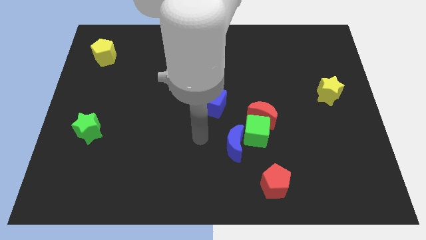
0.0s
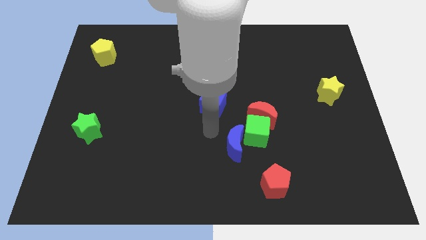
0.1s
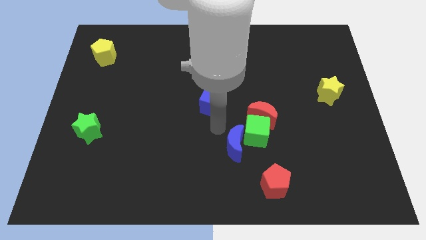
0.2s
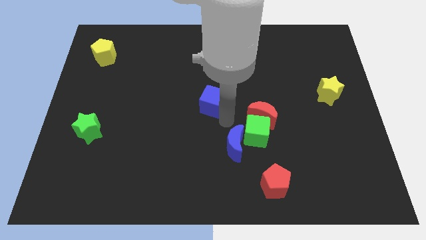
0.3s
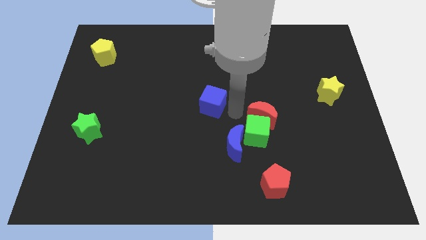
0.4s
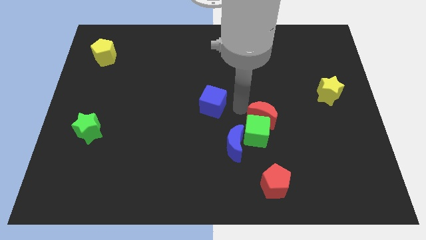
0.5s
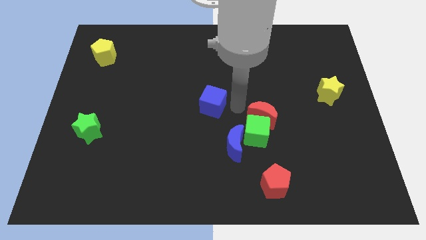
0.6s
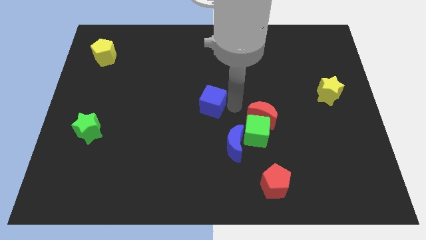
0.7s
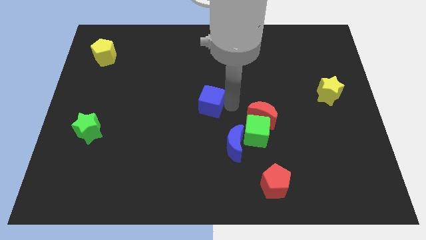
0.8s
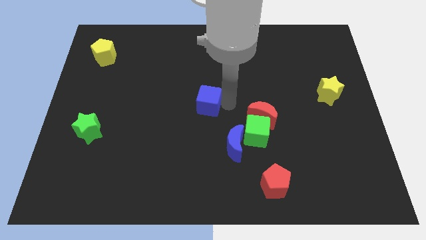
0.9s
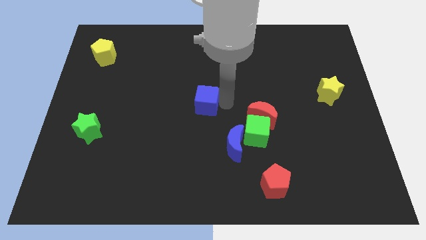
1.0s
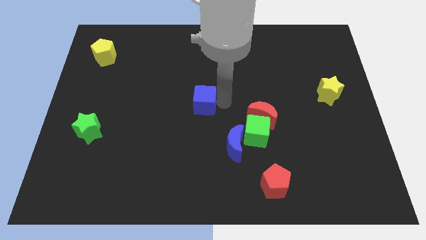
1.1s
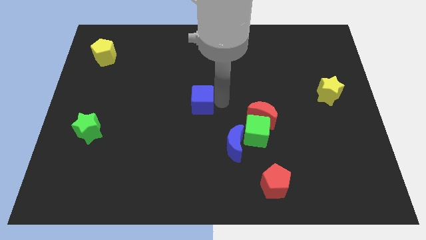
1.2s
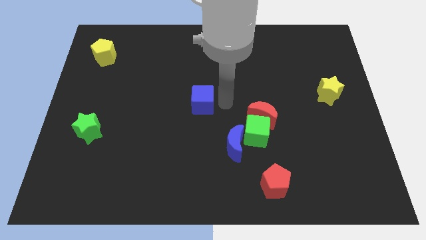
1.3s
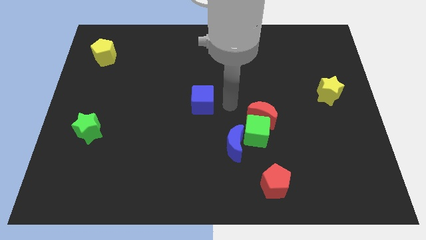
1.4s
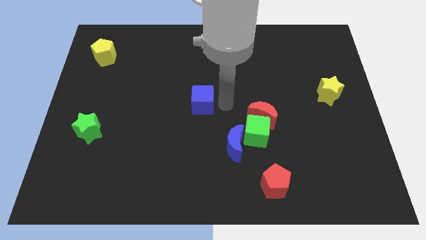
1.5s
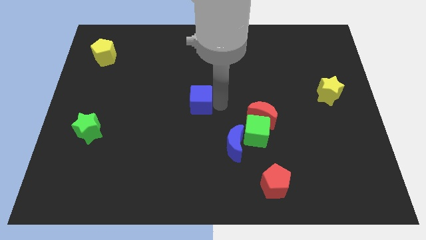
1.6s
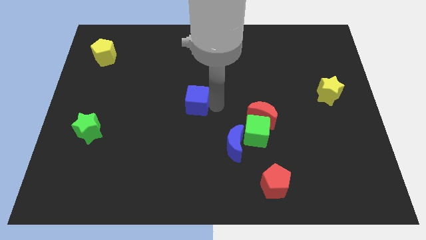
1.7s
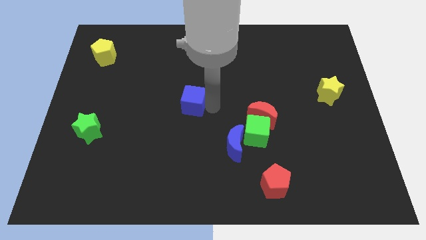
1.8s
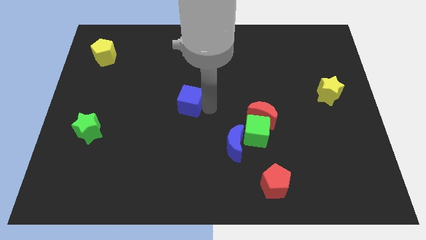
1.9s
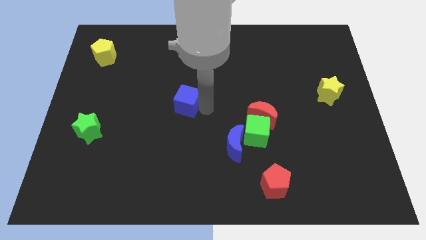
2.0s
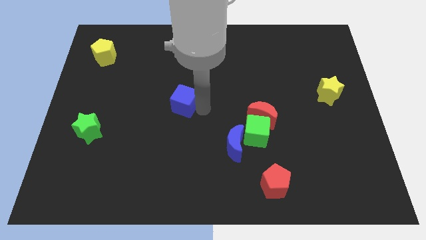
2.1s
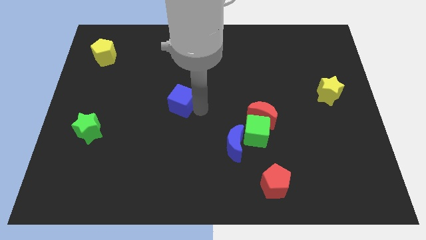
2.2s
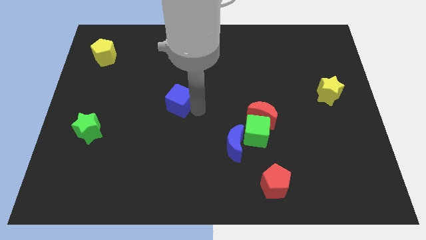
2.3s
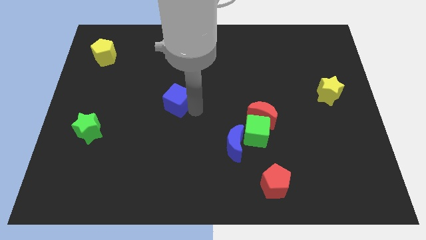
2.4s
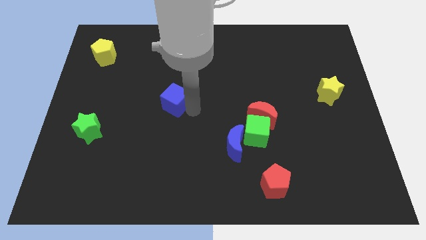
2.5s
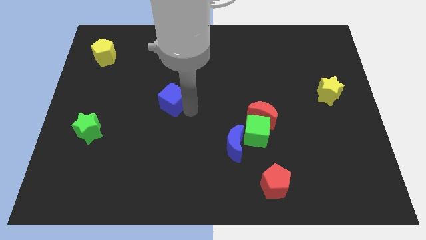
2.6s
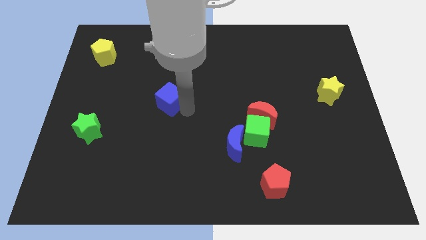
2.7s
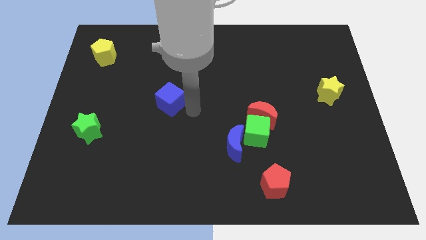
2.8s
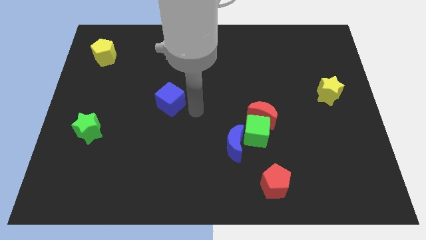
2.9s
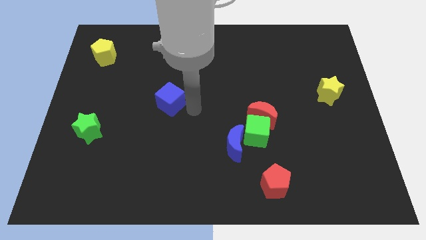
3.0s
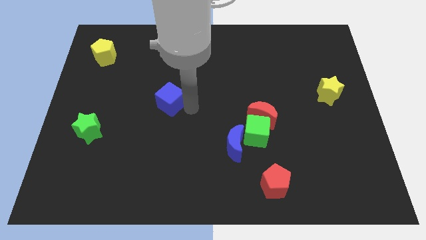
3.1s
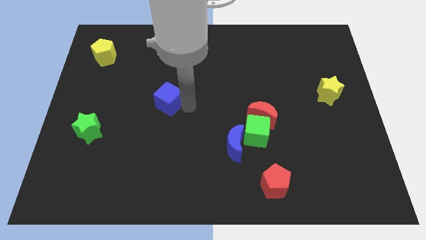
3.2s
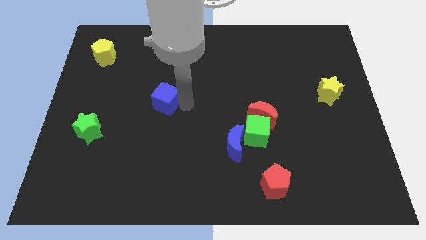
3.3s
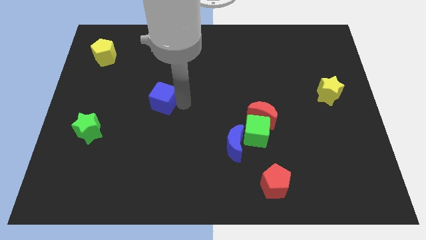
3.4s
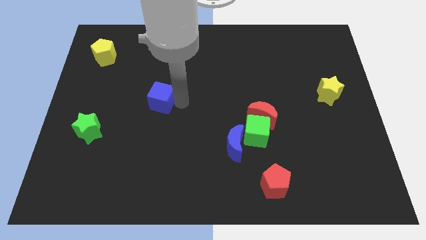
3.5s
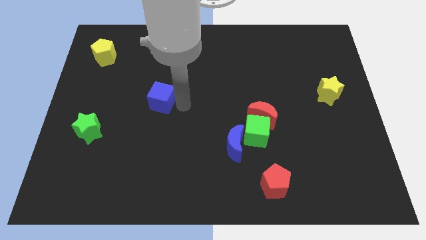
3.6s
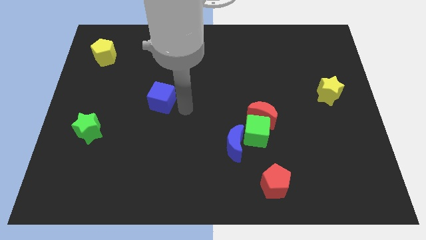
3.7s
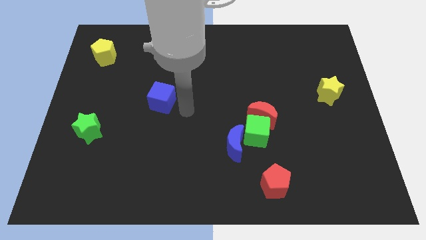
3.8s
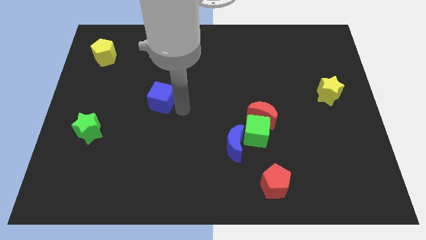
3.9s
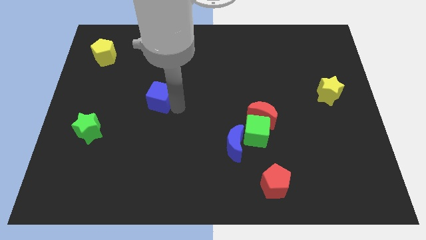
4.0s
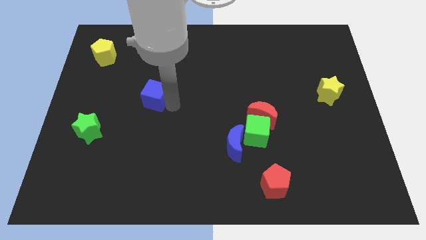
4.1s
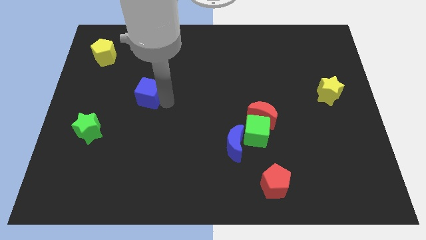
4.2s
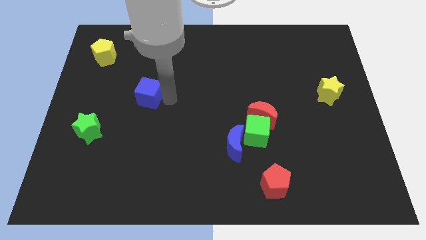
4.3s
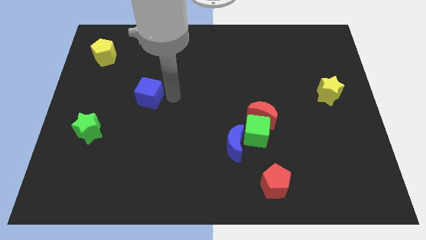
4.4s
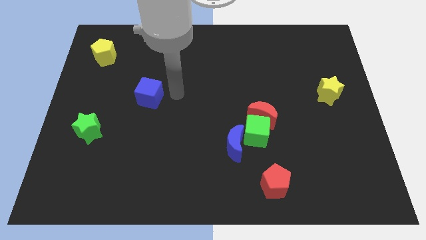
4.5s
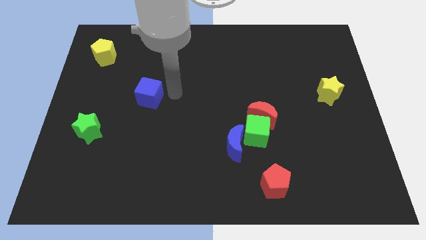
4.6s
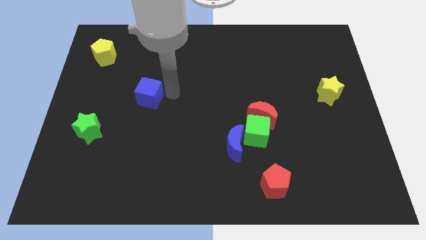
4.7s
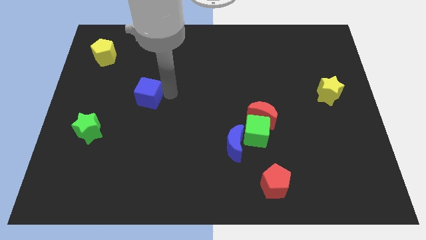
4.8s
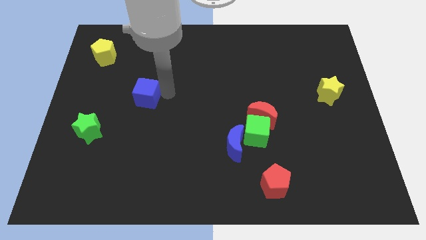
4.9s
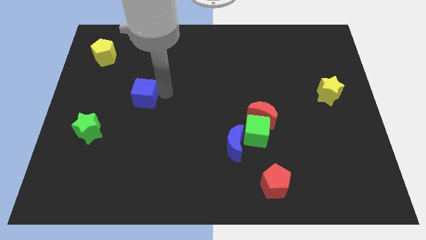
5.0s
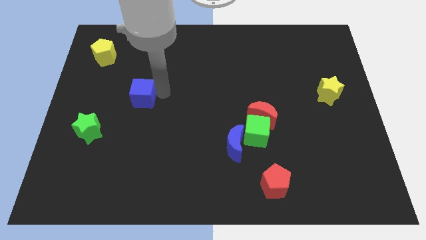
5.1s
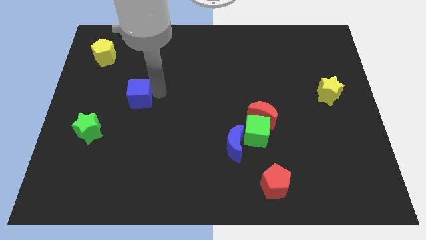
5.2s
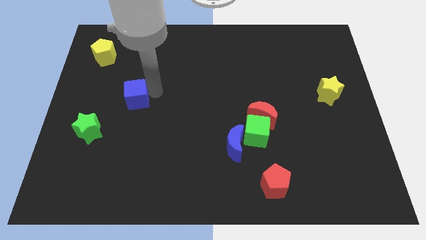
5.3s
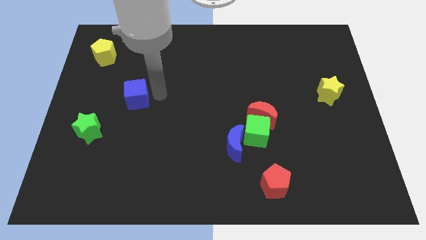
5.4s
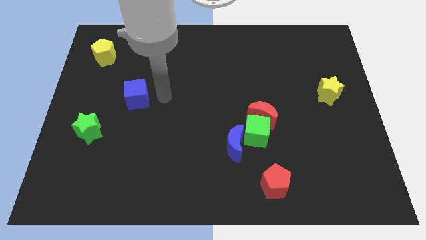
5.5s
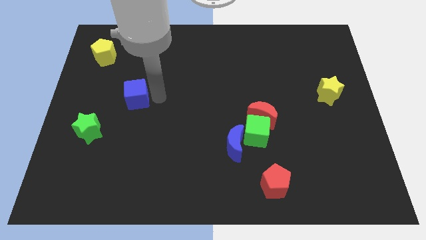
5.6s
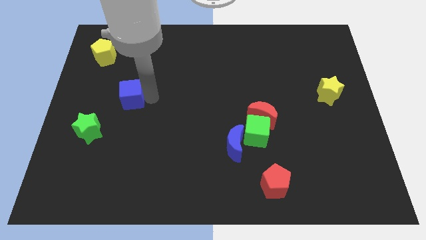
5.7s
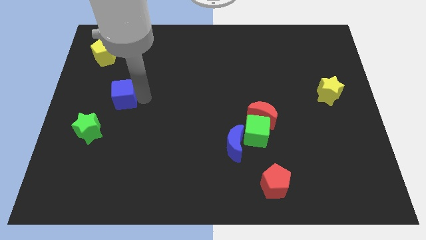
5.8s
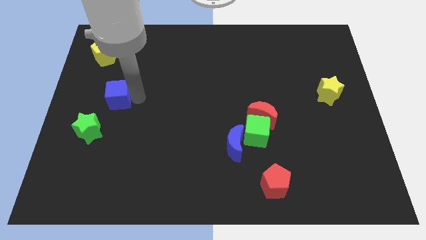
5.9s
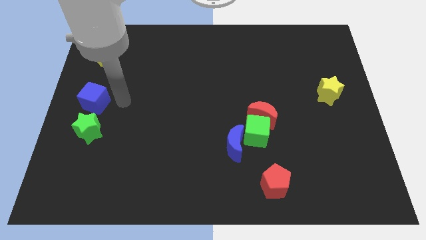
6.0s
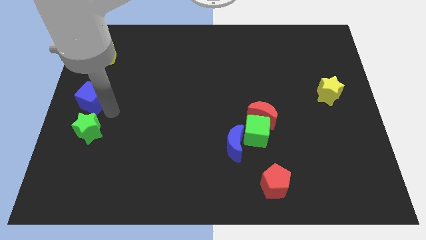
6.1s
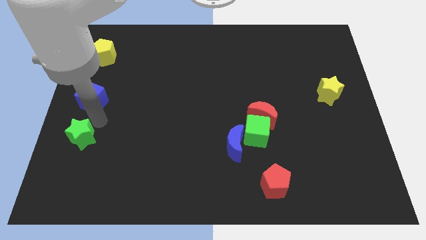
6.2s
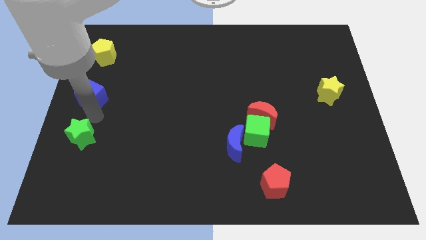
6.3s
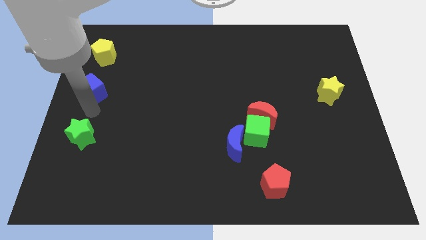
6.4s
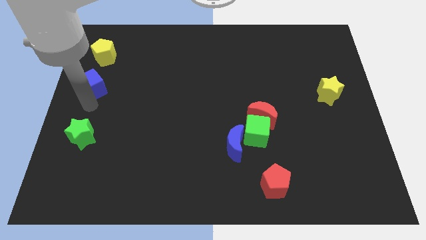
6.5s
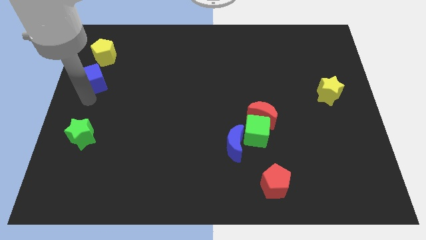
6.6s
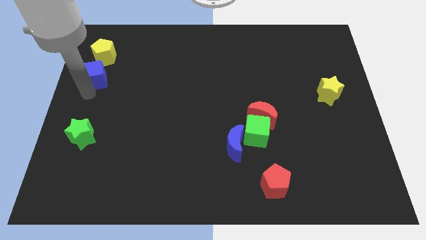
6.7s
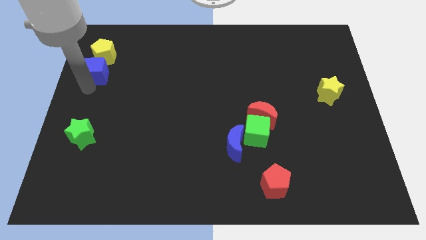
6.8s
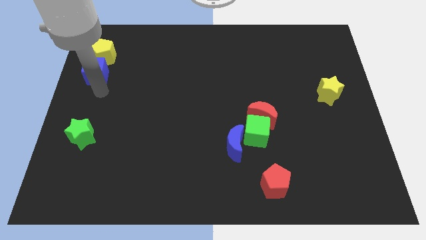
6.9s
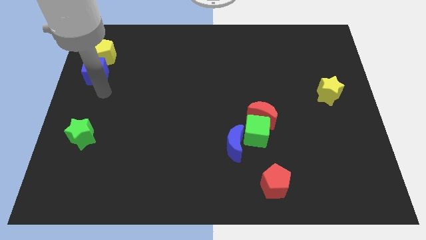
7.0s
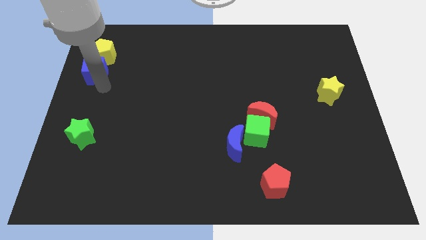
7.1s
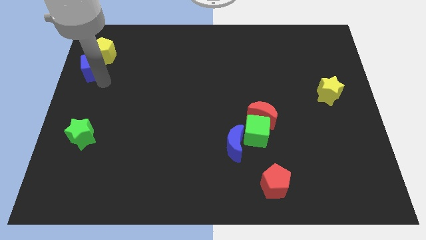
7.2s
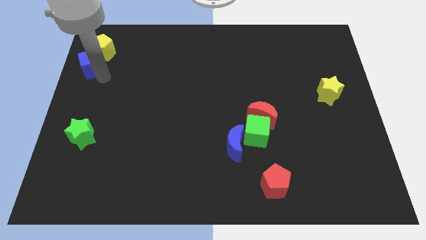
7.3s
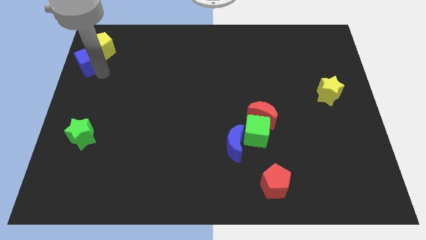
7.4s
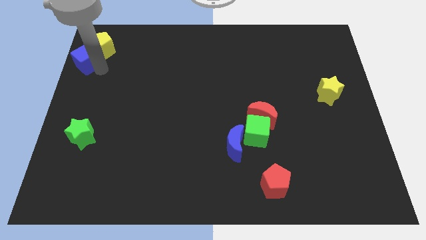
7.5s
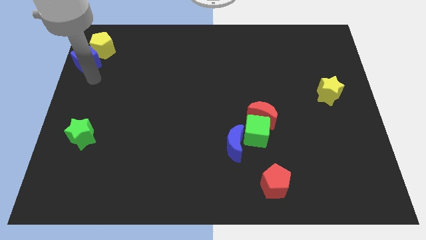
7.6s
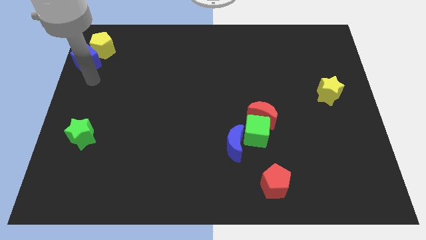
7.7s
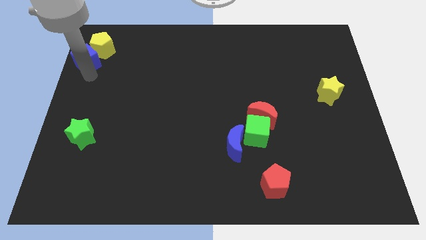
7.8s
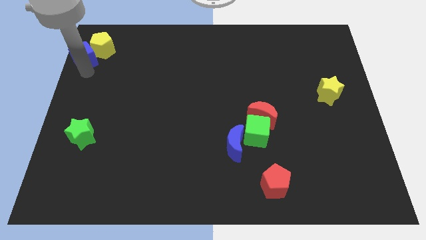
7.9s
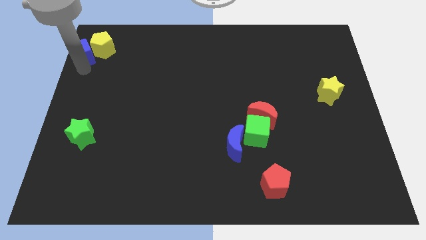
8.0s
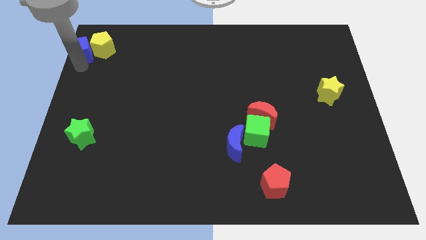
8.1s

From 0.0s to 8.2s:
push the blue cube to the upper left corner
